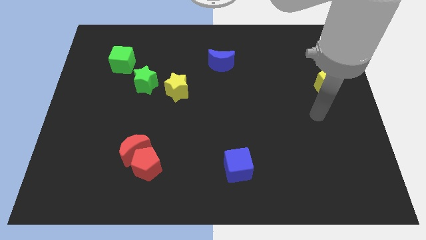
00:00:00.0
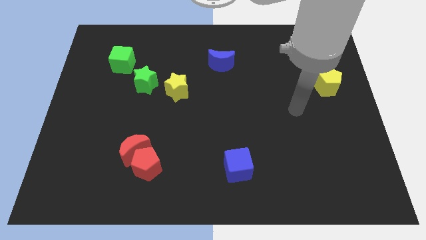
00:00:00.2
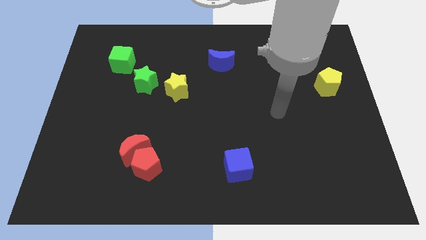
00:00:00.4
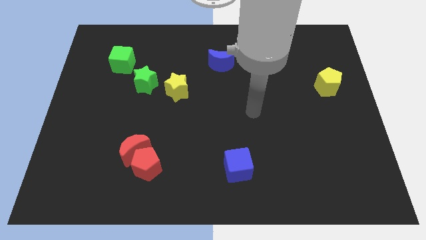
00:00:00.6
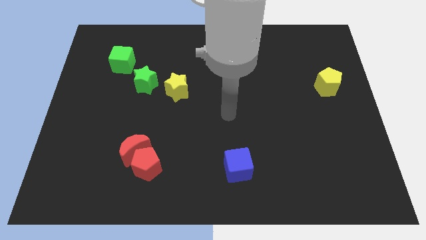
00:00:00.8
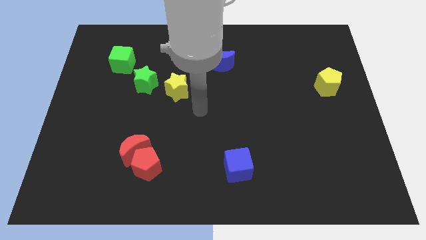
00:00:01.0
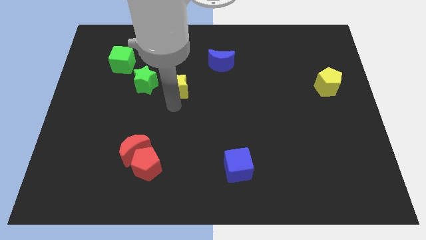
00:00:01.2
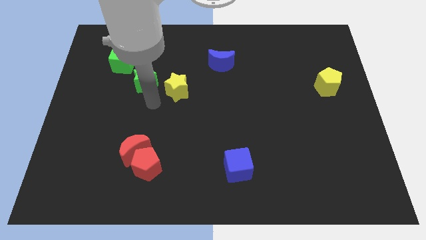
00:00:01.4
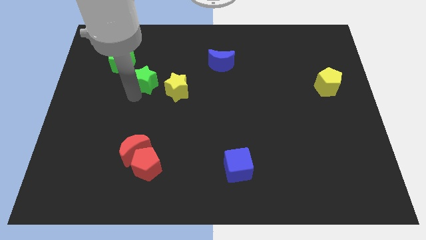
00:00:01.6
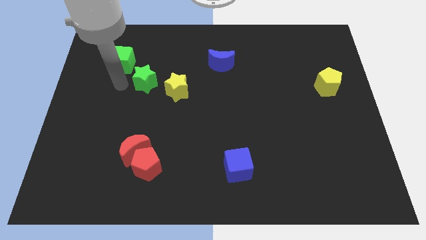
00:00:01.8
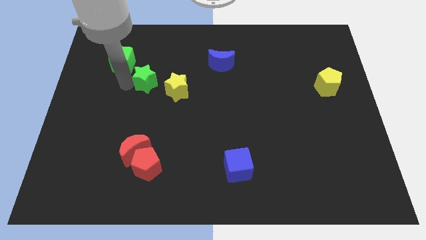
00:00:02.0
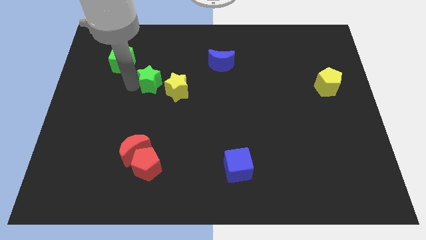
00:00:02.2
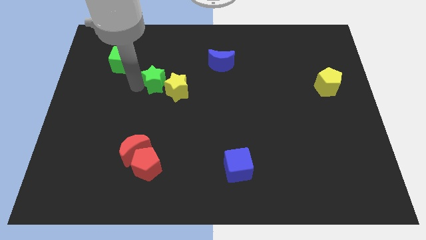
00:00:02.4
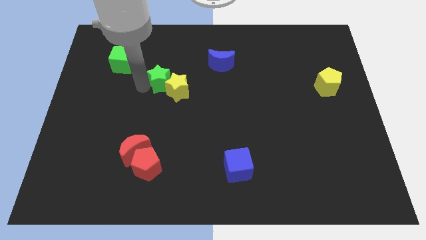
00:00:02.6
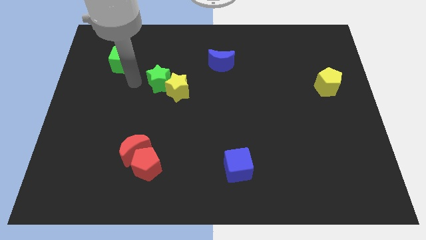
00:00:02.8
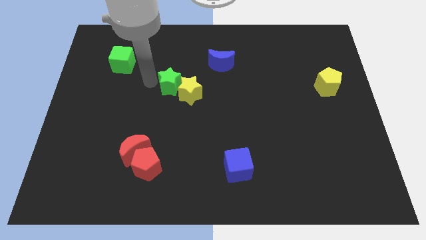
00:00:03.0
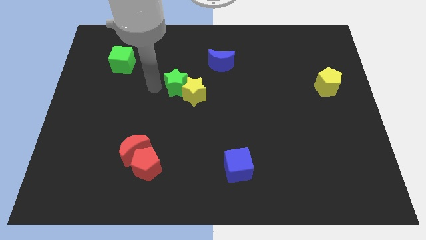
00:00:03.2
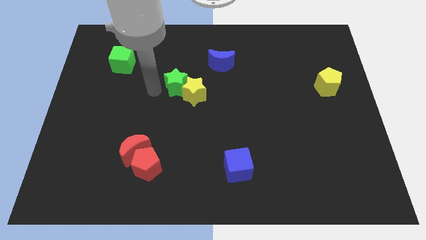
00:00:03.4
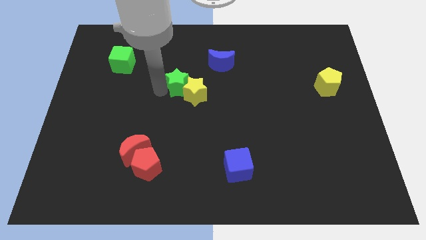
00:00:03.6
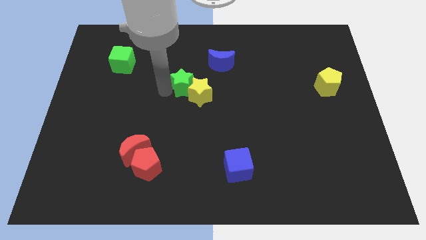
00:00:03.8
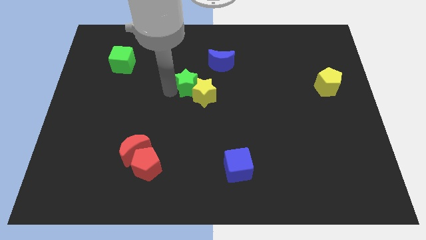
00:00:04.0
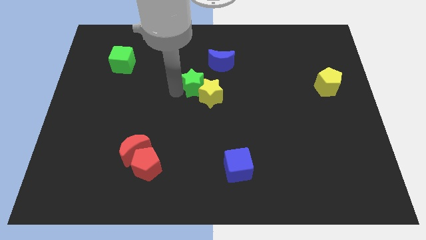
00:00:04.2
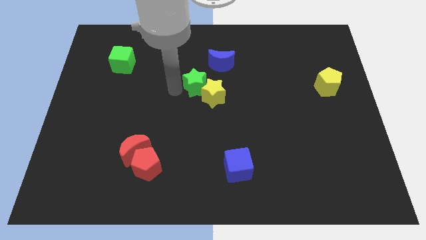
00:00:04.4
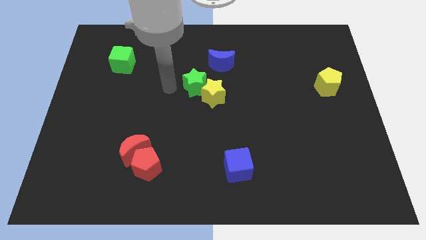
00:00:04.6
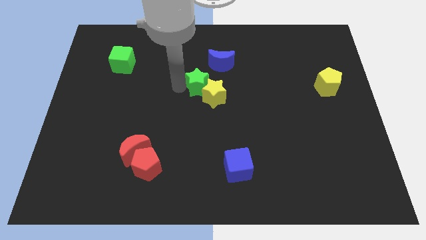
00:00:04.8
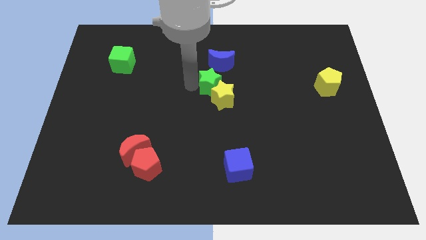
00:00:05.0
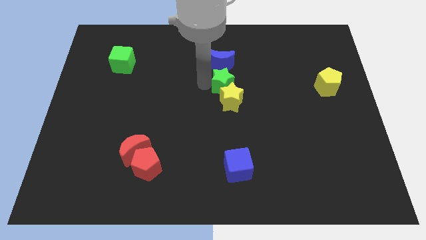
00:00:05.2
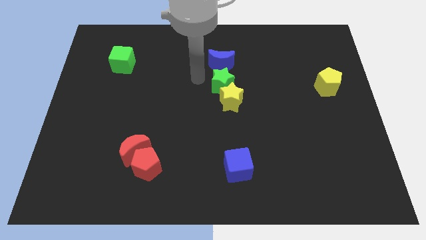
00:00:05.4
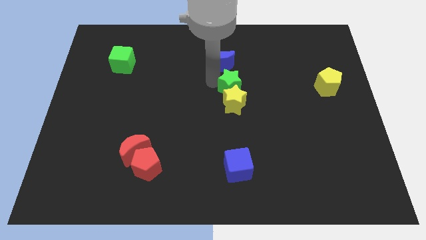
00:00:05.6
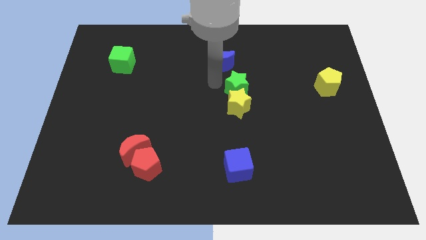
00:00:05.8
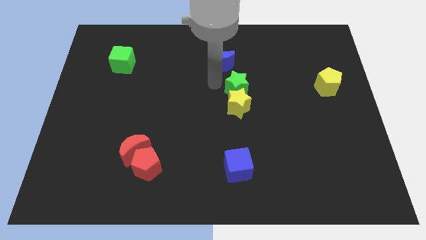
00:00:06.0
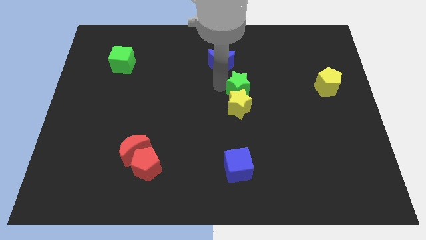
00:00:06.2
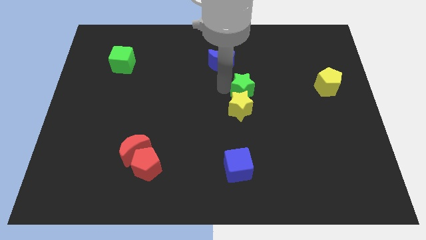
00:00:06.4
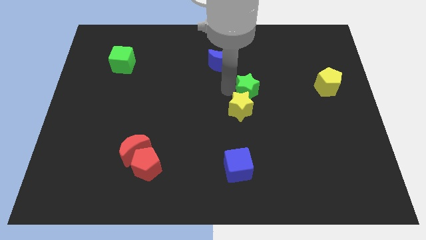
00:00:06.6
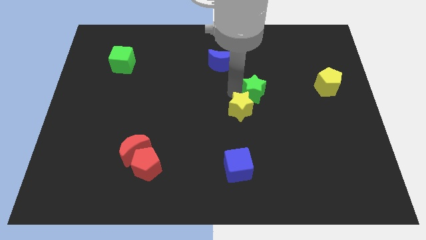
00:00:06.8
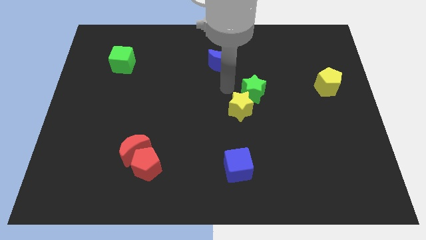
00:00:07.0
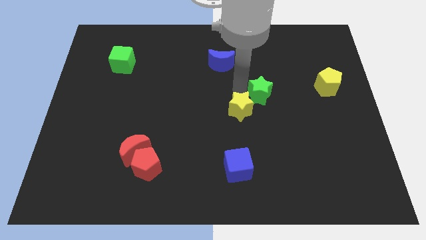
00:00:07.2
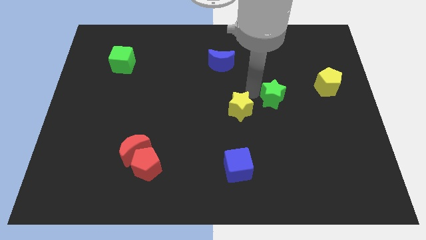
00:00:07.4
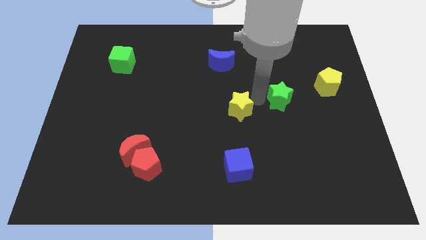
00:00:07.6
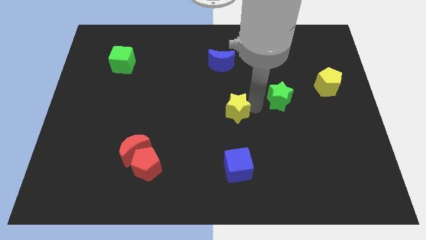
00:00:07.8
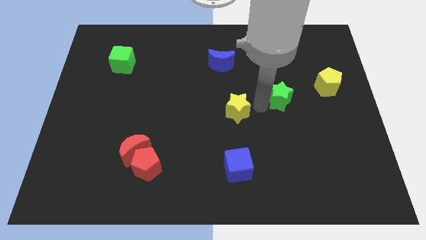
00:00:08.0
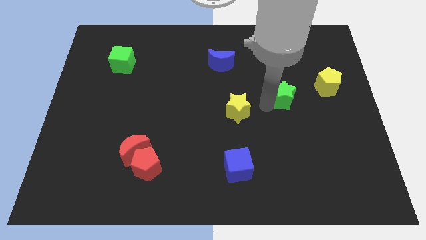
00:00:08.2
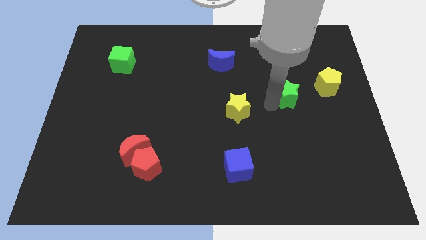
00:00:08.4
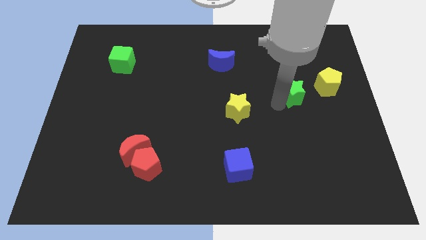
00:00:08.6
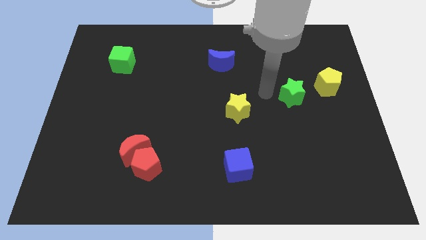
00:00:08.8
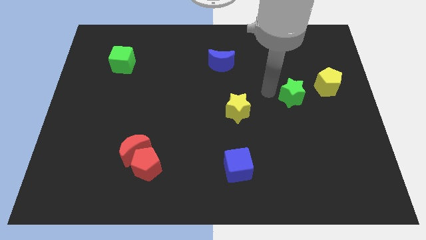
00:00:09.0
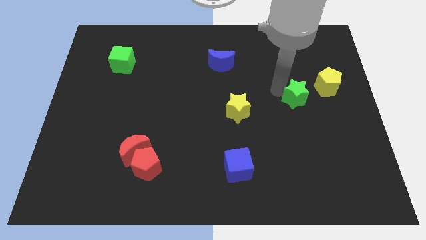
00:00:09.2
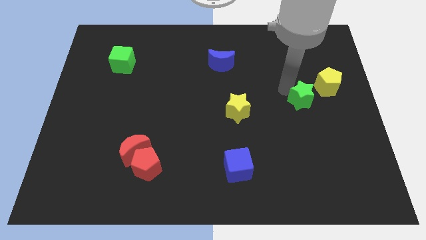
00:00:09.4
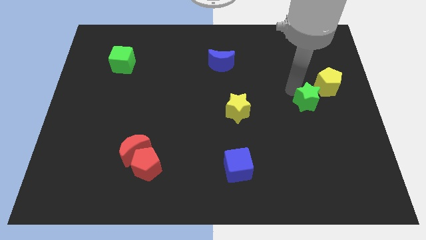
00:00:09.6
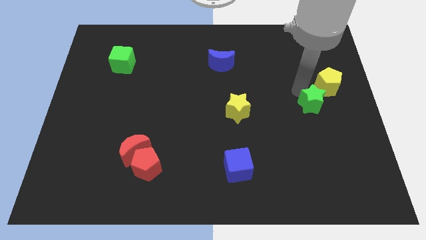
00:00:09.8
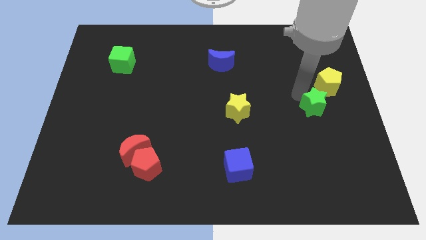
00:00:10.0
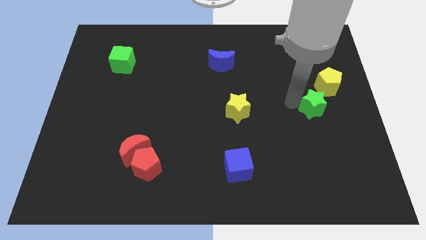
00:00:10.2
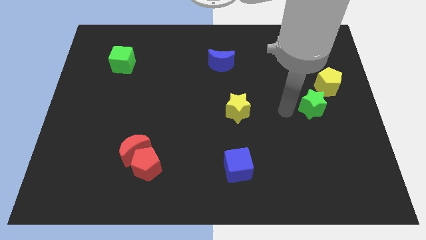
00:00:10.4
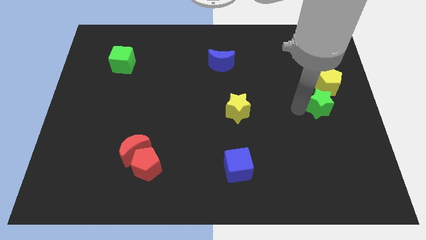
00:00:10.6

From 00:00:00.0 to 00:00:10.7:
move the green star to the right side

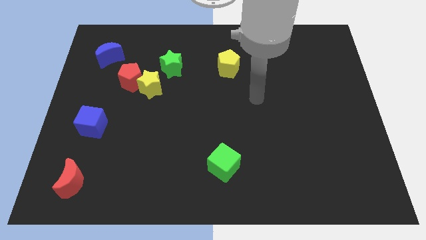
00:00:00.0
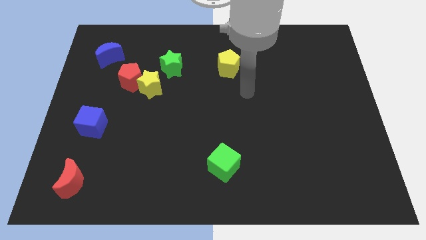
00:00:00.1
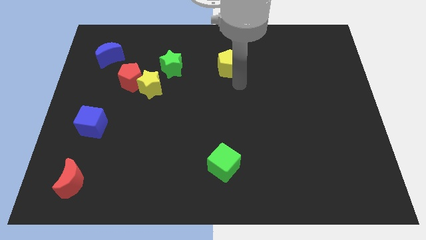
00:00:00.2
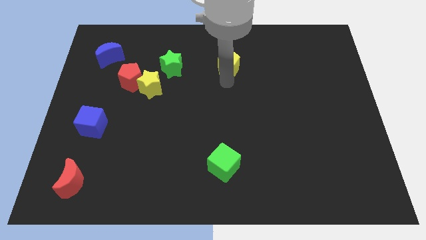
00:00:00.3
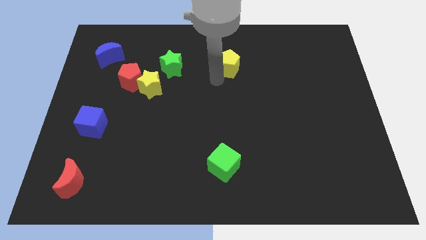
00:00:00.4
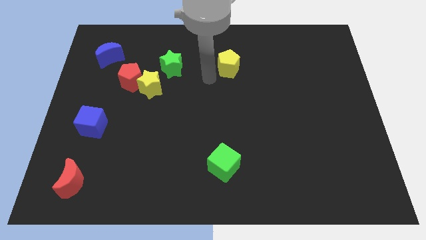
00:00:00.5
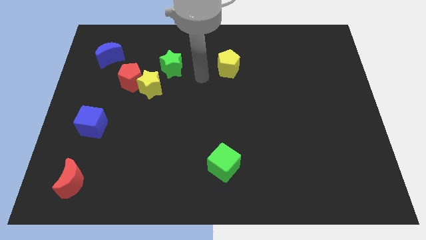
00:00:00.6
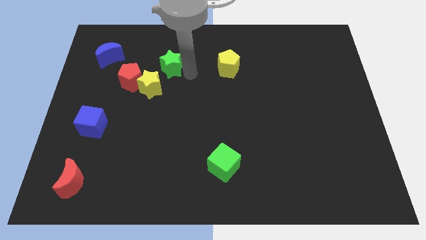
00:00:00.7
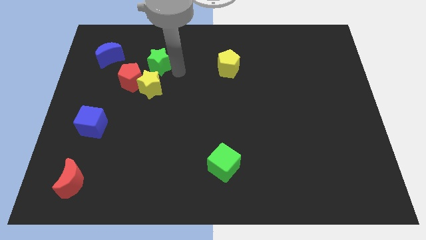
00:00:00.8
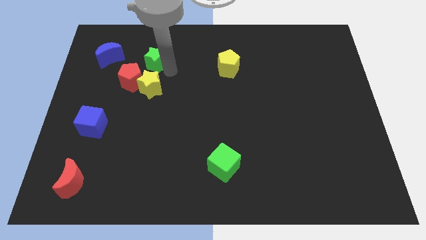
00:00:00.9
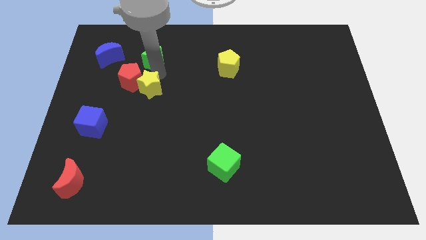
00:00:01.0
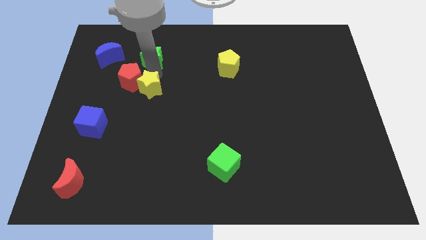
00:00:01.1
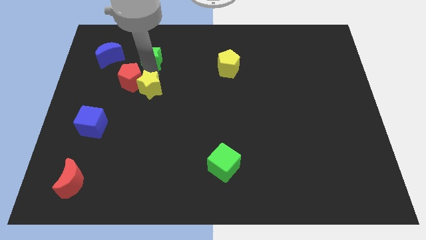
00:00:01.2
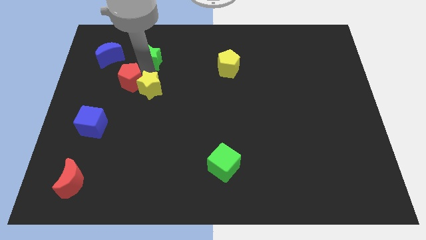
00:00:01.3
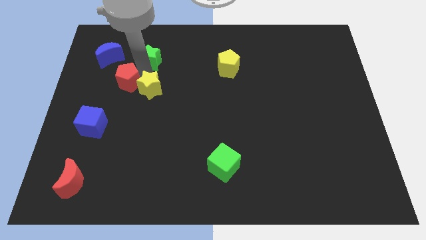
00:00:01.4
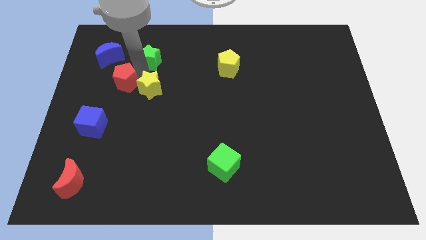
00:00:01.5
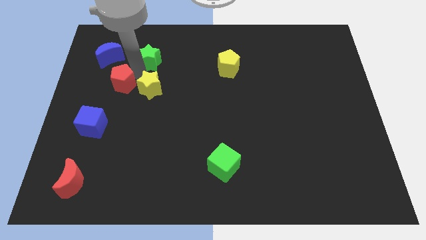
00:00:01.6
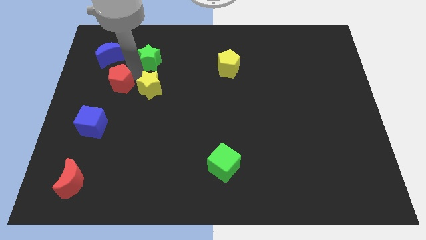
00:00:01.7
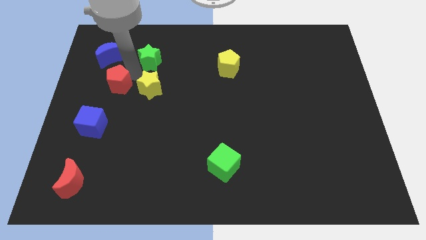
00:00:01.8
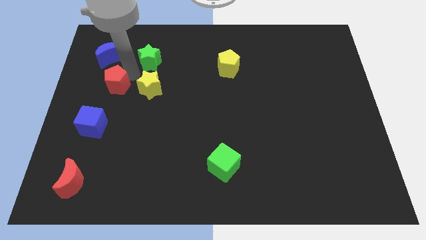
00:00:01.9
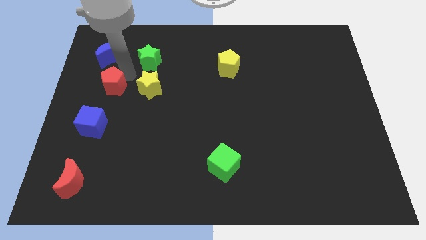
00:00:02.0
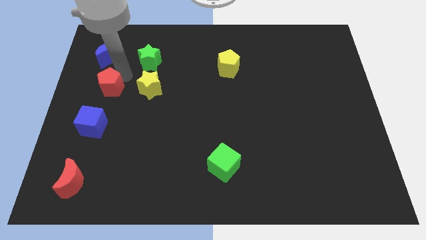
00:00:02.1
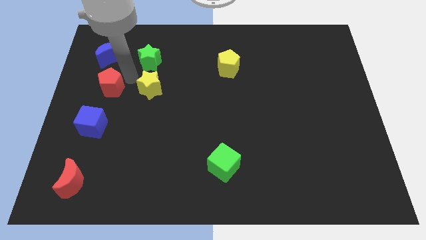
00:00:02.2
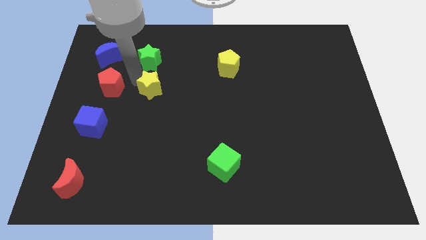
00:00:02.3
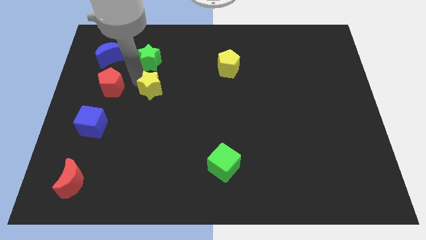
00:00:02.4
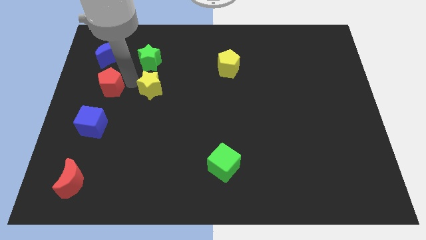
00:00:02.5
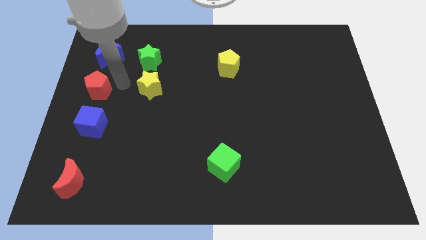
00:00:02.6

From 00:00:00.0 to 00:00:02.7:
push the red pentagon to the center left
